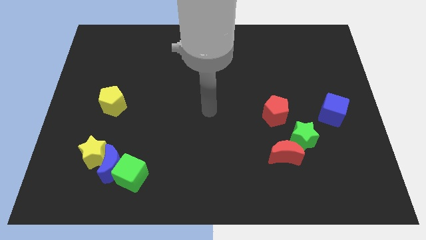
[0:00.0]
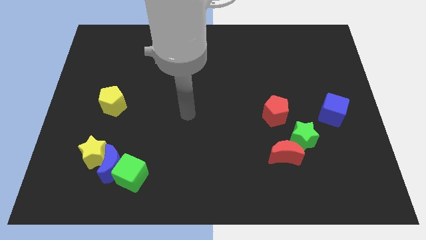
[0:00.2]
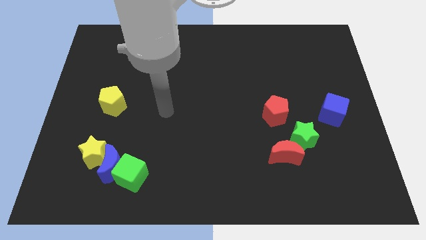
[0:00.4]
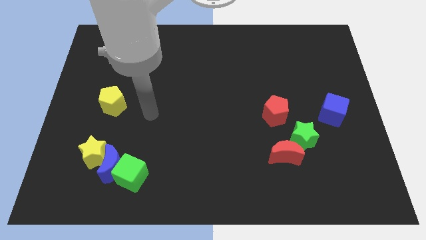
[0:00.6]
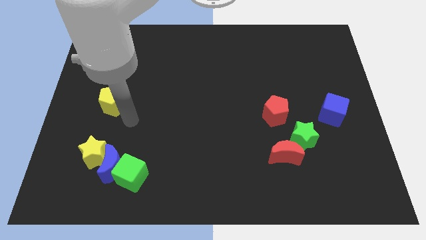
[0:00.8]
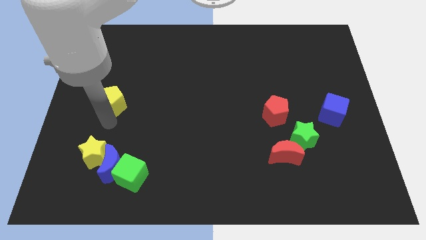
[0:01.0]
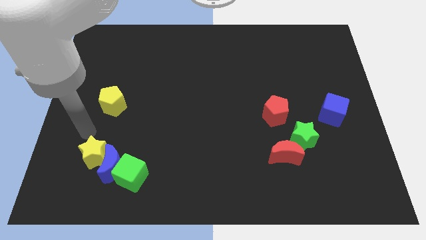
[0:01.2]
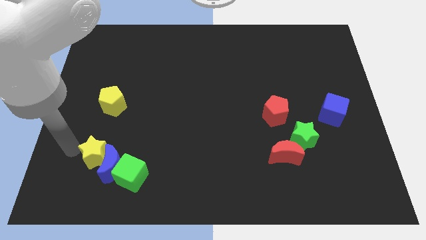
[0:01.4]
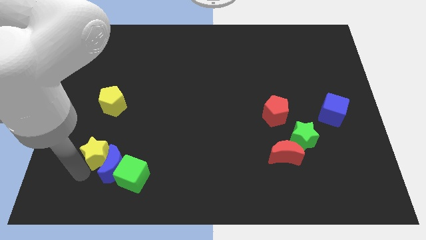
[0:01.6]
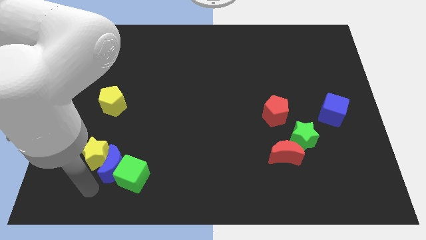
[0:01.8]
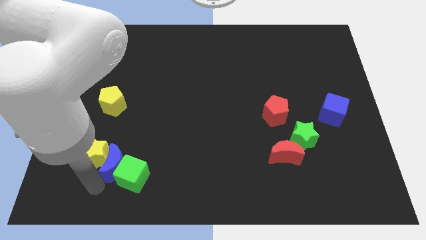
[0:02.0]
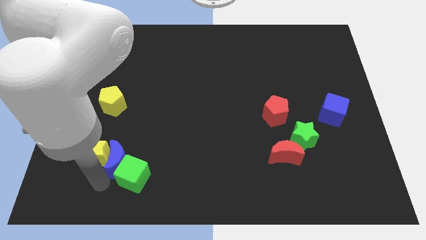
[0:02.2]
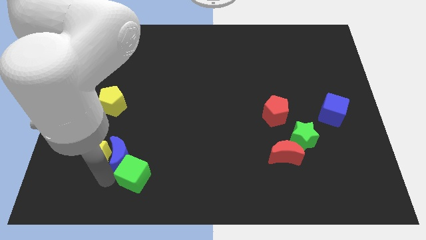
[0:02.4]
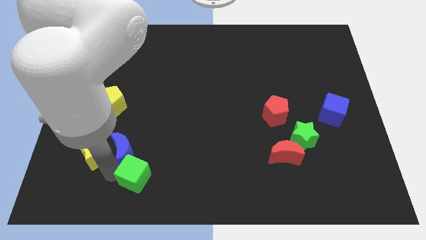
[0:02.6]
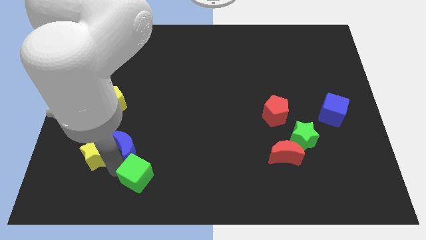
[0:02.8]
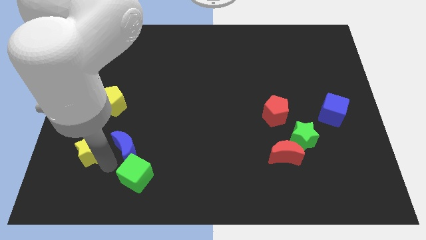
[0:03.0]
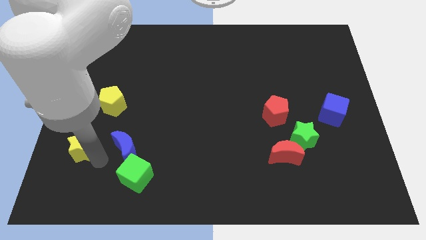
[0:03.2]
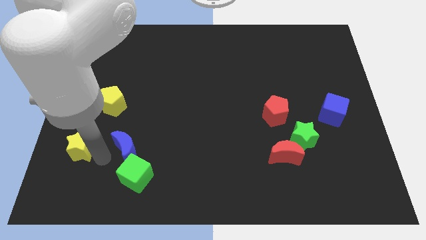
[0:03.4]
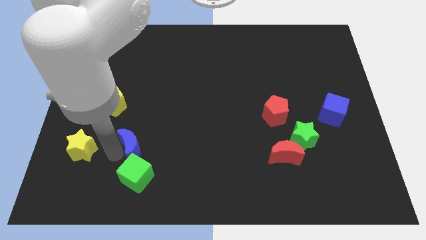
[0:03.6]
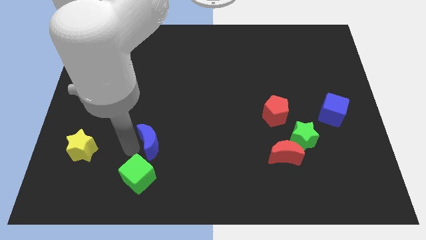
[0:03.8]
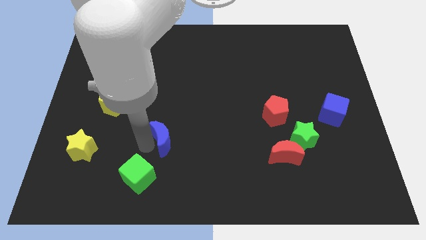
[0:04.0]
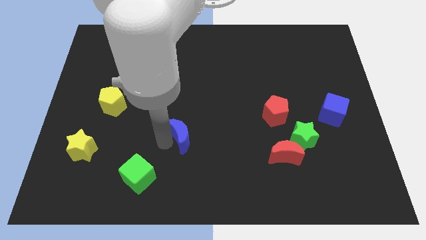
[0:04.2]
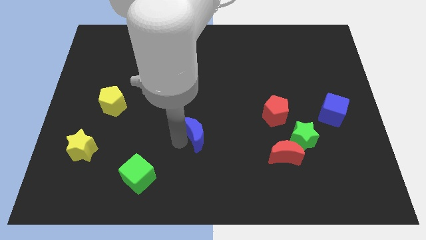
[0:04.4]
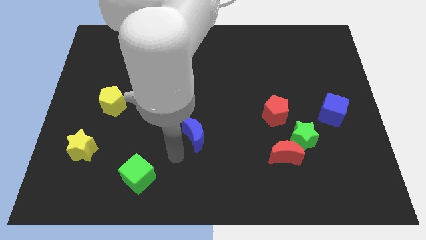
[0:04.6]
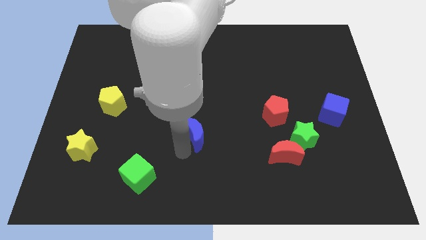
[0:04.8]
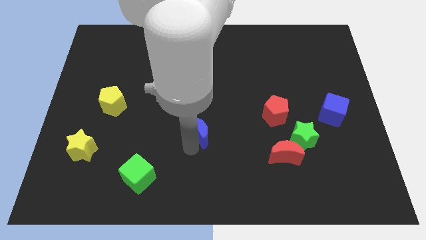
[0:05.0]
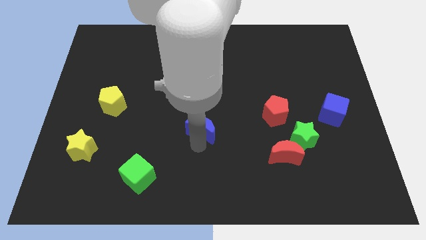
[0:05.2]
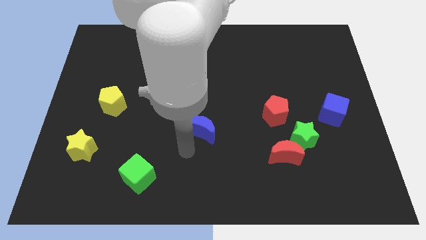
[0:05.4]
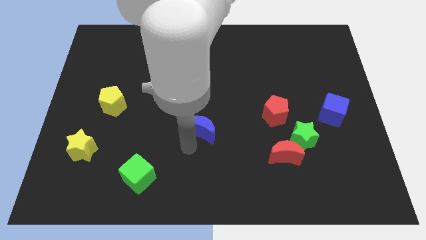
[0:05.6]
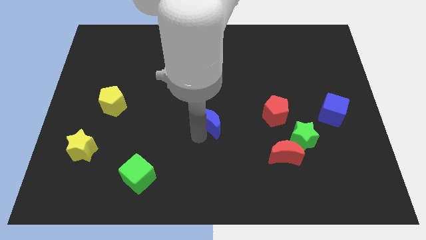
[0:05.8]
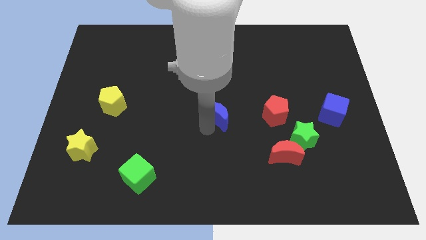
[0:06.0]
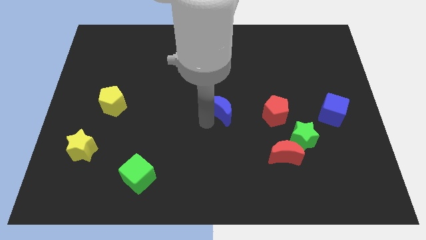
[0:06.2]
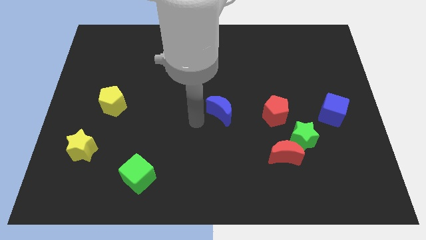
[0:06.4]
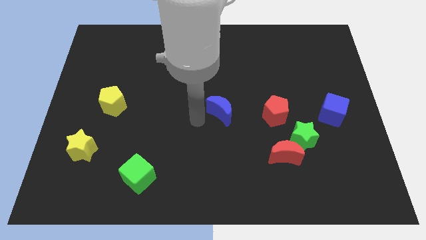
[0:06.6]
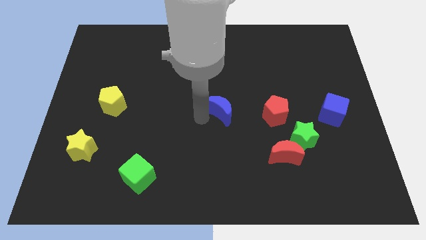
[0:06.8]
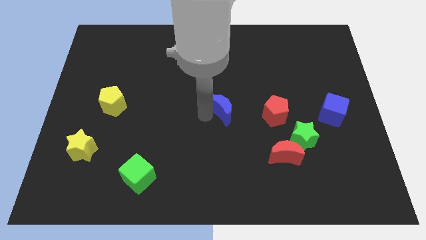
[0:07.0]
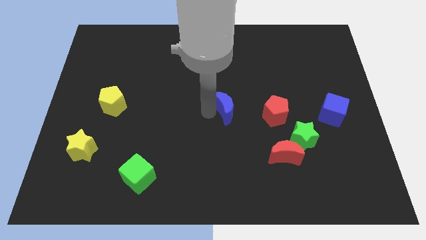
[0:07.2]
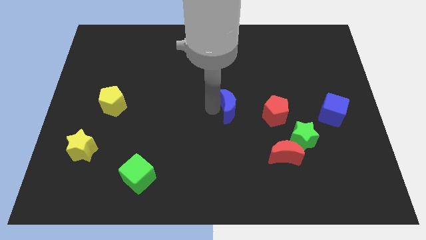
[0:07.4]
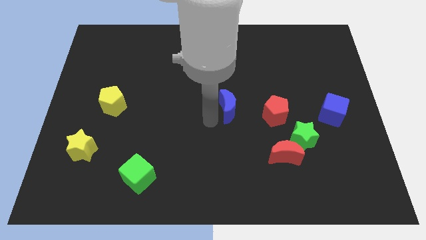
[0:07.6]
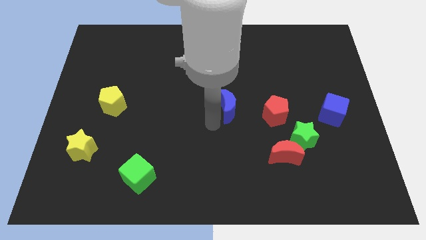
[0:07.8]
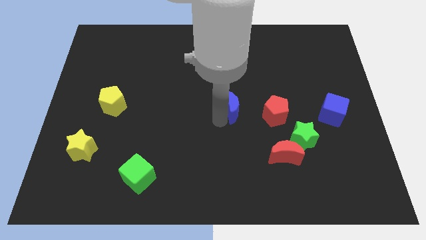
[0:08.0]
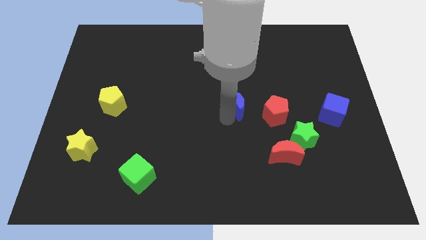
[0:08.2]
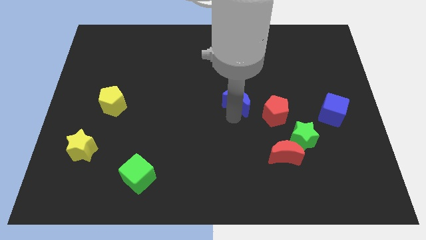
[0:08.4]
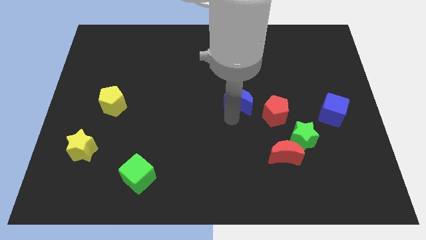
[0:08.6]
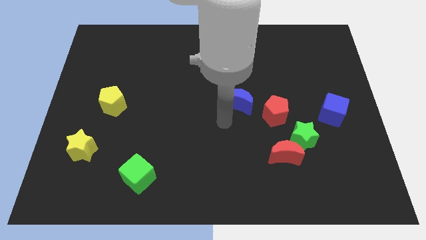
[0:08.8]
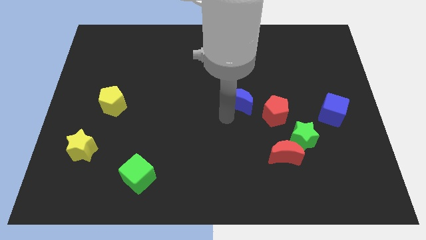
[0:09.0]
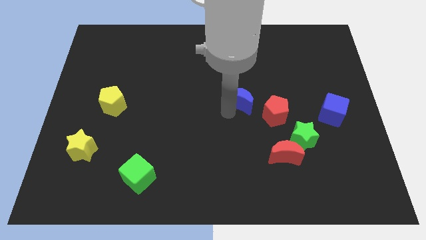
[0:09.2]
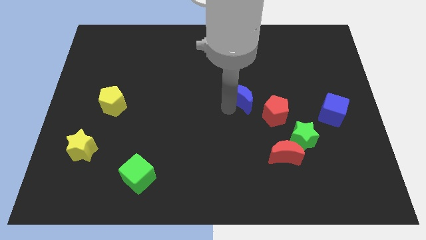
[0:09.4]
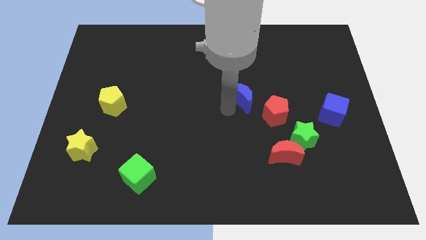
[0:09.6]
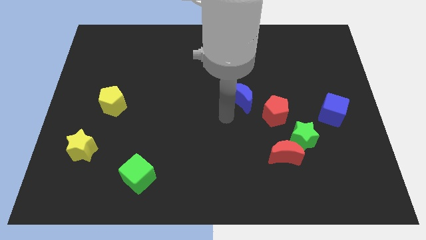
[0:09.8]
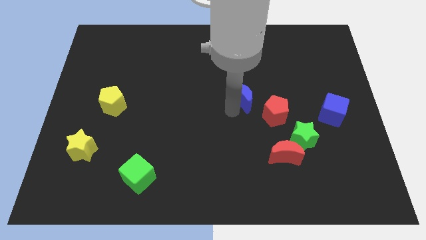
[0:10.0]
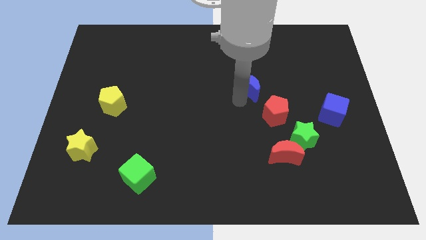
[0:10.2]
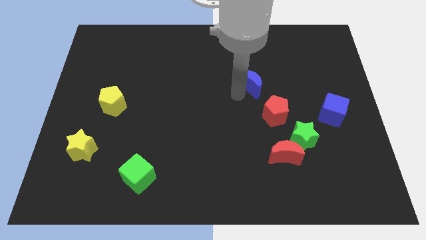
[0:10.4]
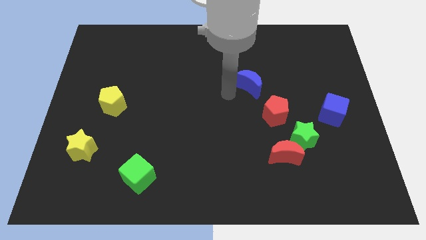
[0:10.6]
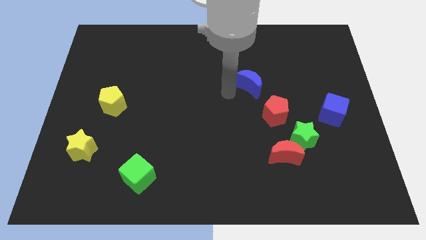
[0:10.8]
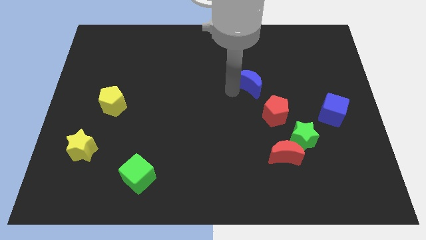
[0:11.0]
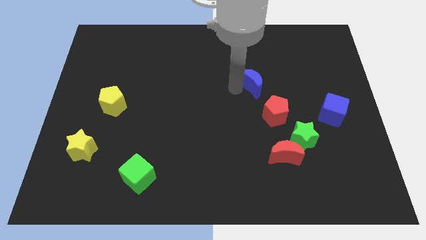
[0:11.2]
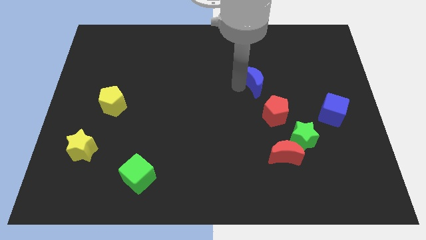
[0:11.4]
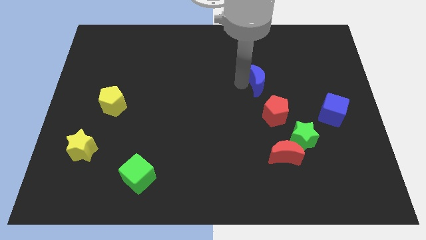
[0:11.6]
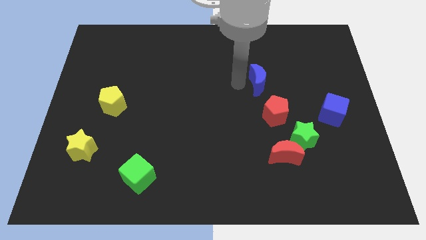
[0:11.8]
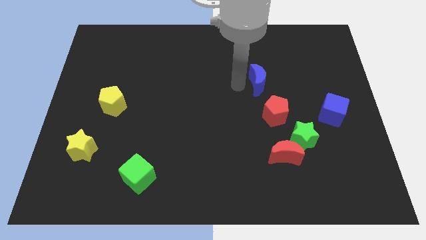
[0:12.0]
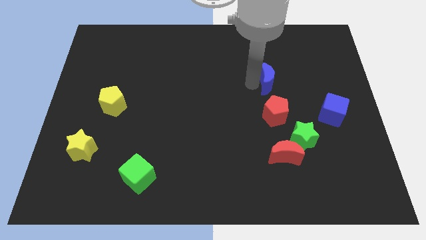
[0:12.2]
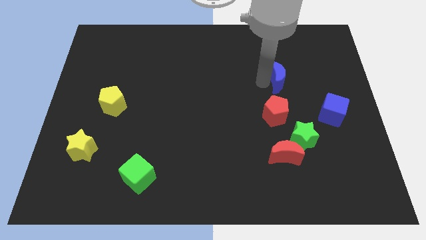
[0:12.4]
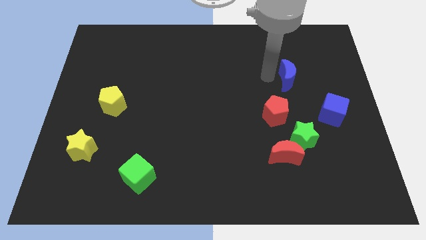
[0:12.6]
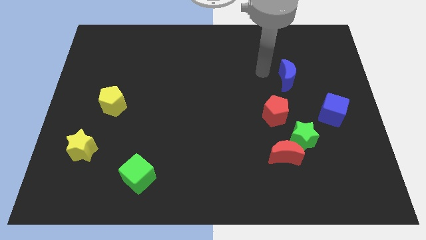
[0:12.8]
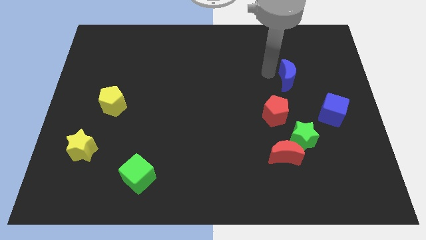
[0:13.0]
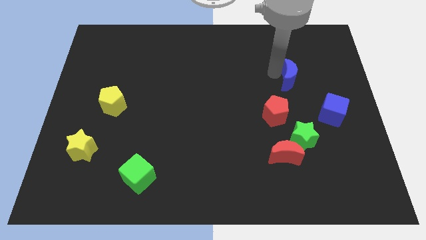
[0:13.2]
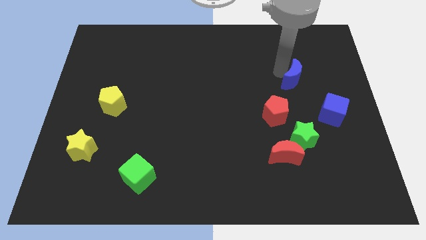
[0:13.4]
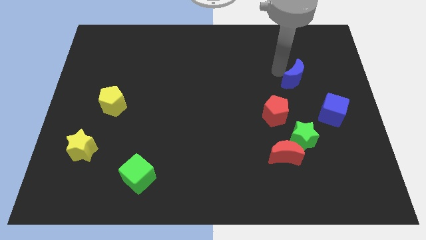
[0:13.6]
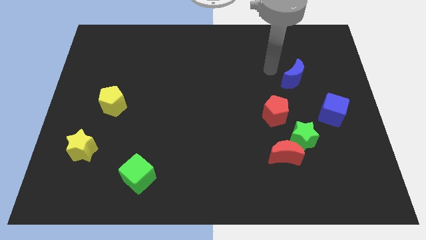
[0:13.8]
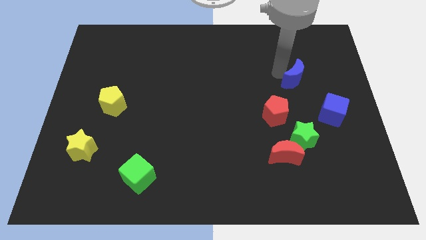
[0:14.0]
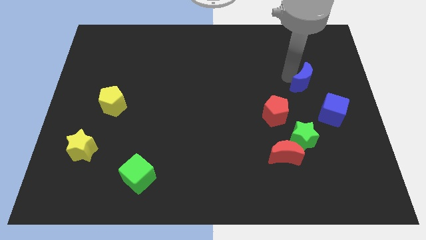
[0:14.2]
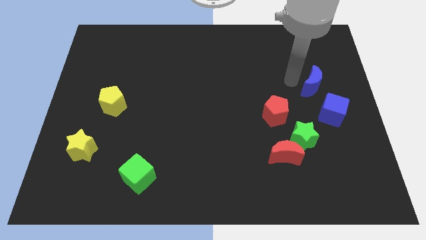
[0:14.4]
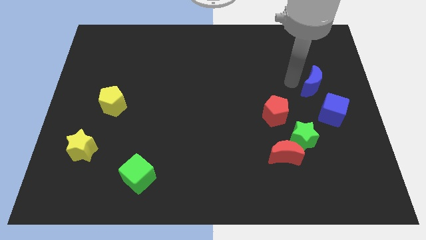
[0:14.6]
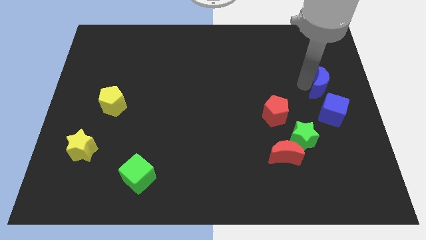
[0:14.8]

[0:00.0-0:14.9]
move the blue moon to the right side
